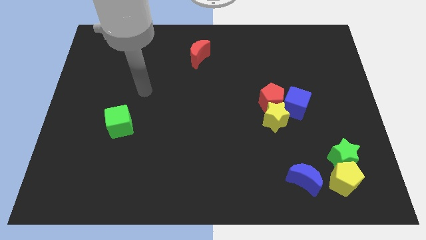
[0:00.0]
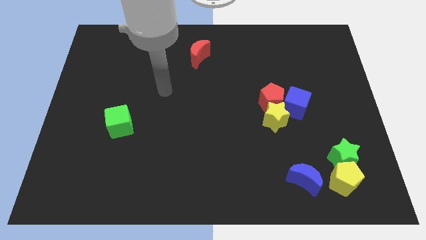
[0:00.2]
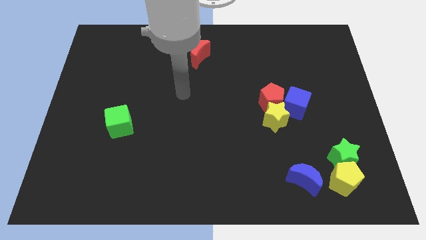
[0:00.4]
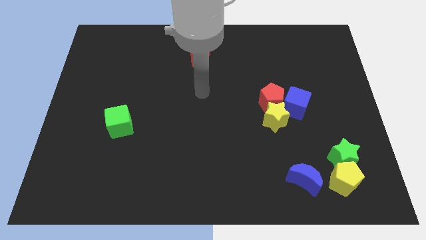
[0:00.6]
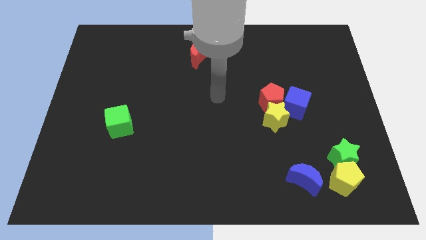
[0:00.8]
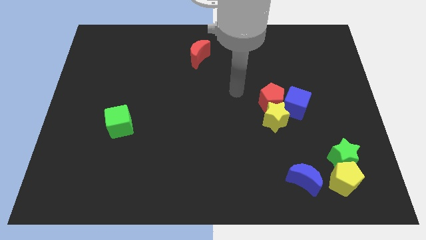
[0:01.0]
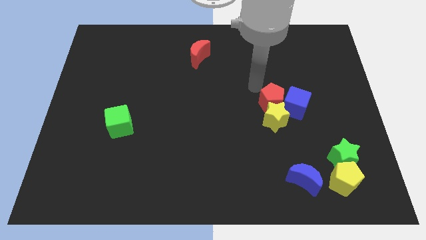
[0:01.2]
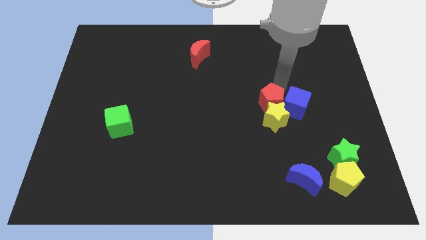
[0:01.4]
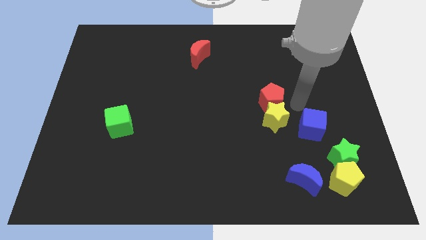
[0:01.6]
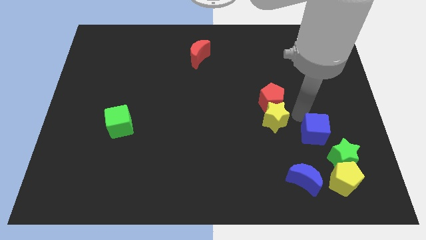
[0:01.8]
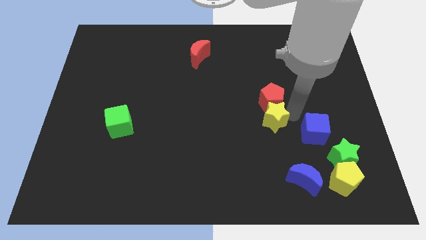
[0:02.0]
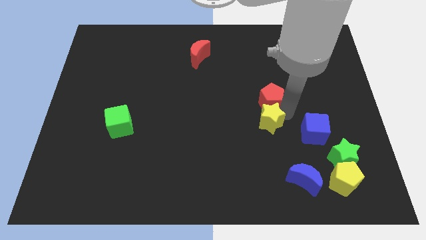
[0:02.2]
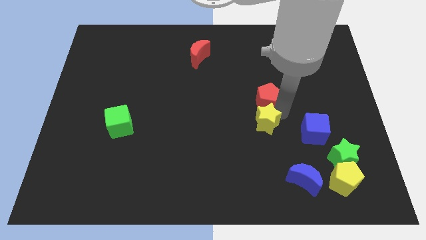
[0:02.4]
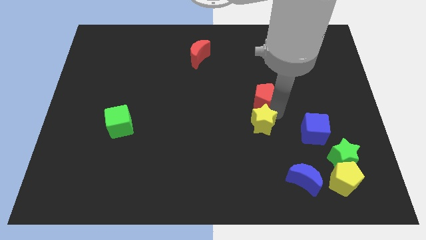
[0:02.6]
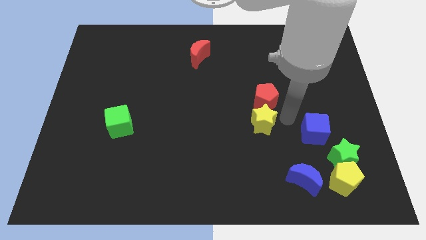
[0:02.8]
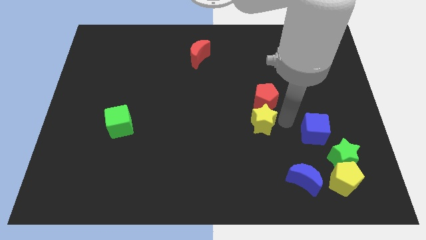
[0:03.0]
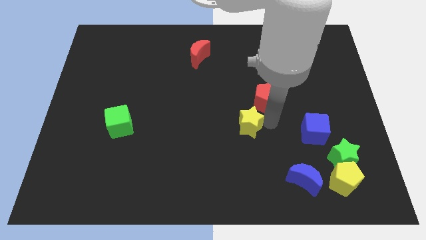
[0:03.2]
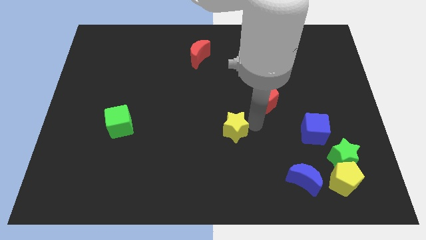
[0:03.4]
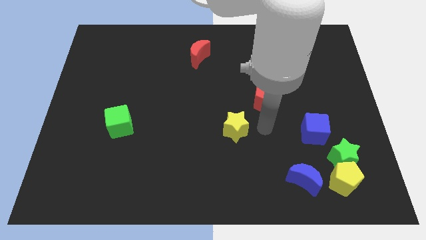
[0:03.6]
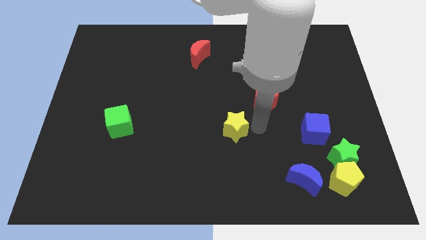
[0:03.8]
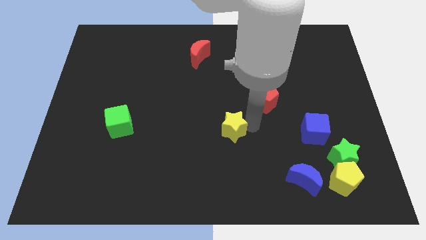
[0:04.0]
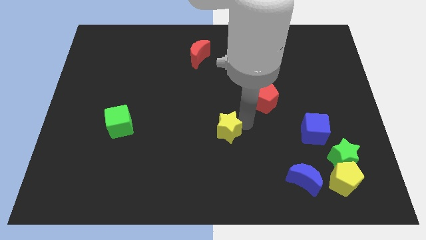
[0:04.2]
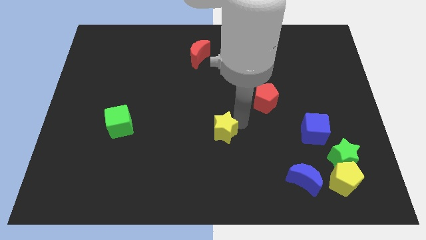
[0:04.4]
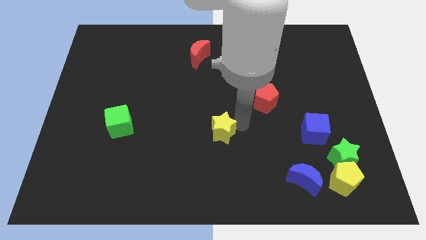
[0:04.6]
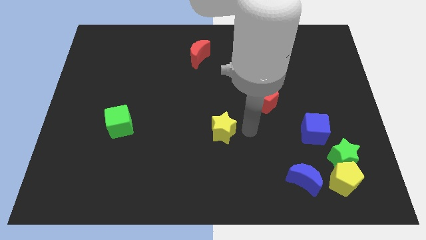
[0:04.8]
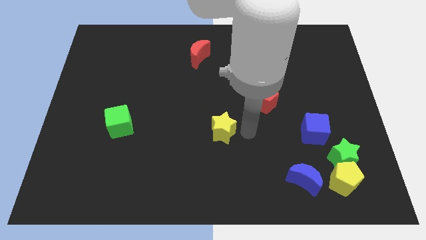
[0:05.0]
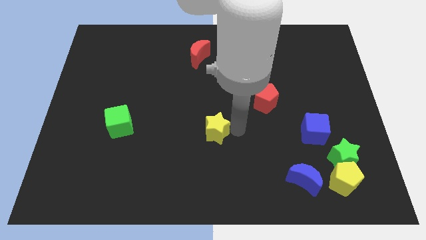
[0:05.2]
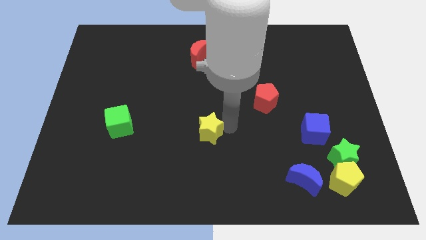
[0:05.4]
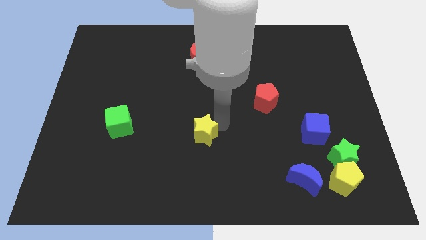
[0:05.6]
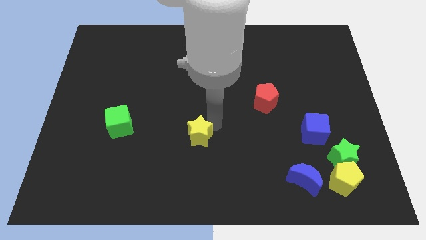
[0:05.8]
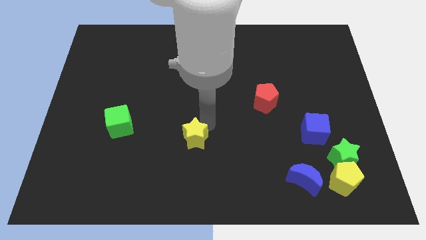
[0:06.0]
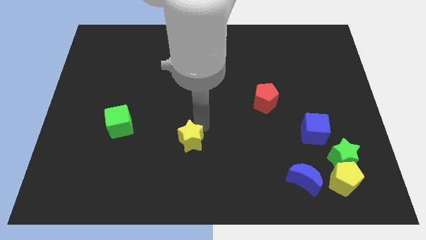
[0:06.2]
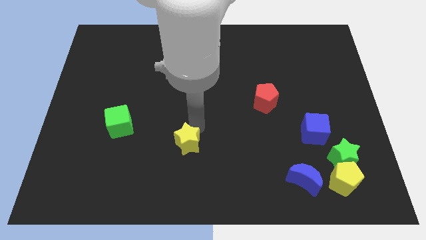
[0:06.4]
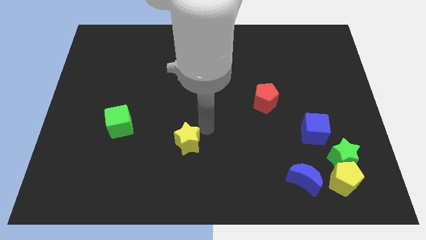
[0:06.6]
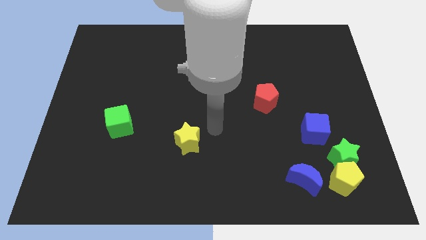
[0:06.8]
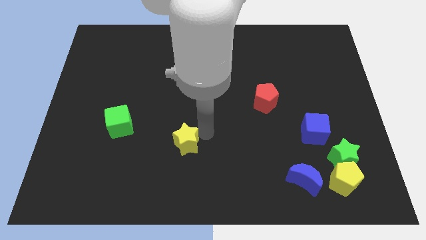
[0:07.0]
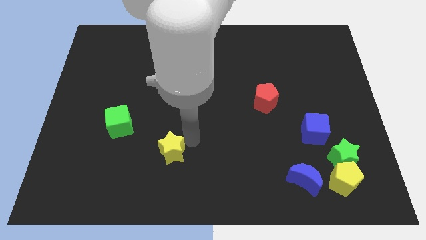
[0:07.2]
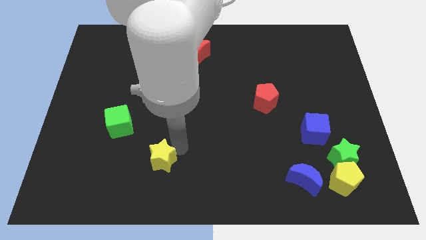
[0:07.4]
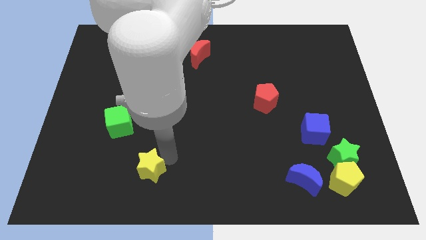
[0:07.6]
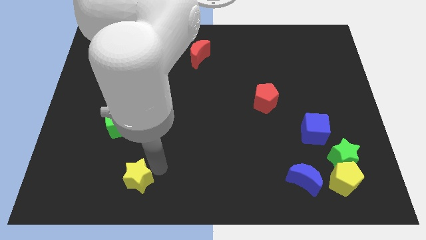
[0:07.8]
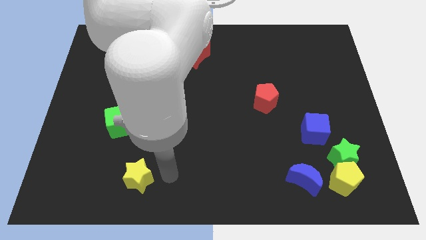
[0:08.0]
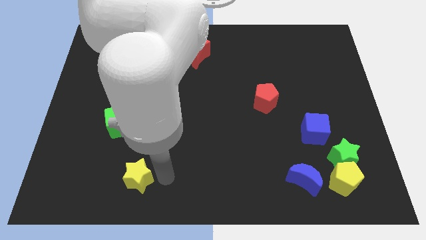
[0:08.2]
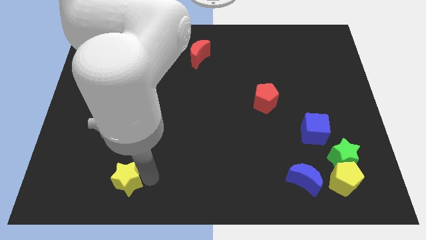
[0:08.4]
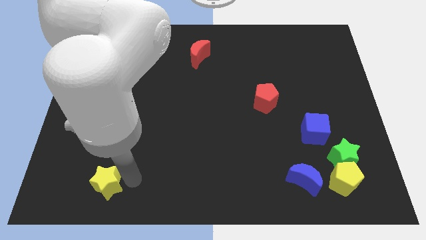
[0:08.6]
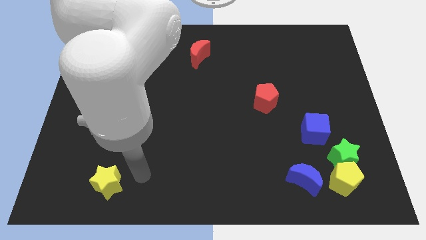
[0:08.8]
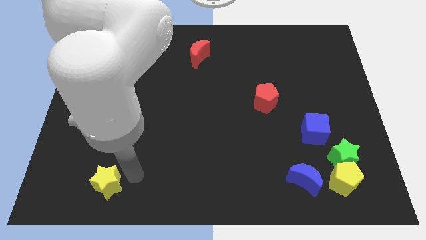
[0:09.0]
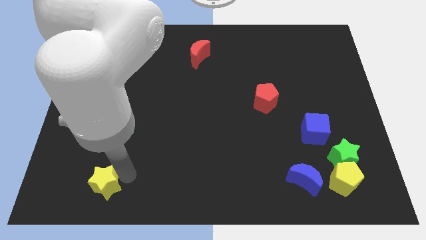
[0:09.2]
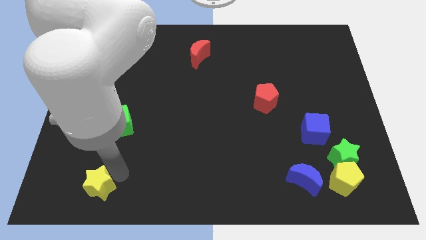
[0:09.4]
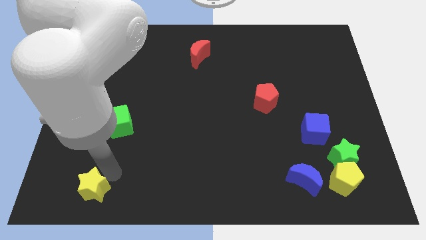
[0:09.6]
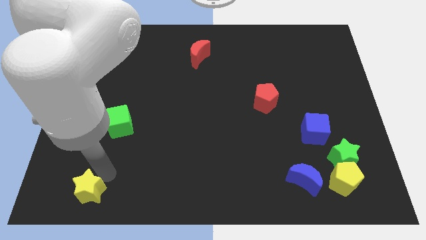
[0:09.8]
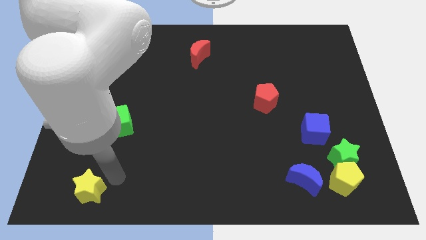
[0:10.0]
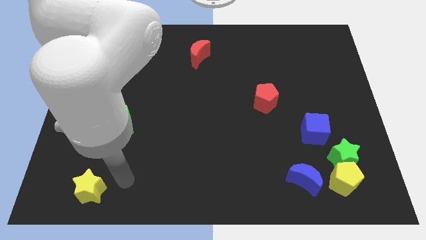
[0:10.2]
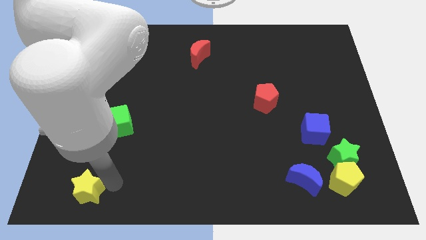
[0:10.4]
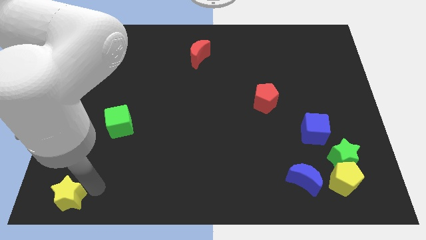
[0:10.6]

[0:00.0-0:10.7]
move the yellow star to the bottom left of the board

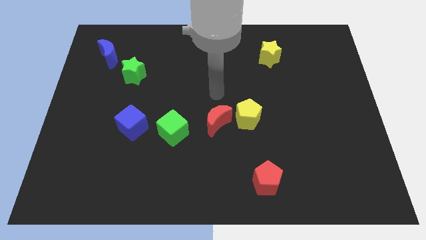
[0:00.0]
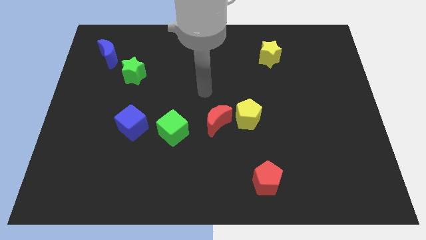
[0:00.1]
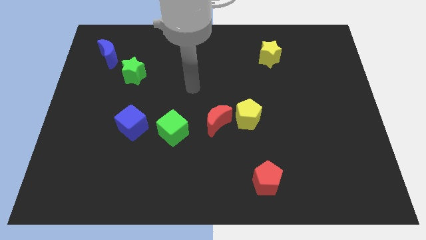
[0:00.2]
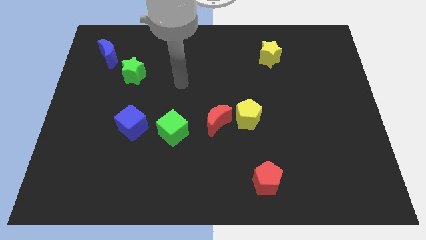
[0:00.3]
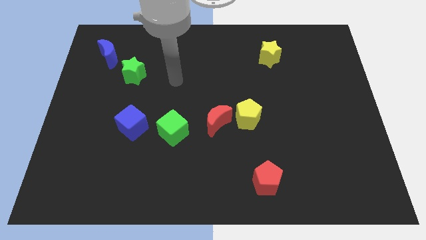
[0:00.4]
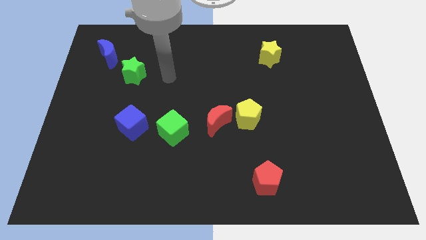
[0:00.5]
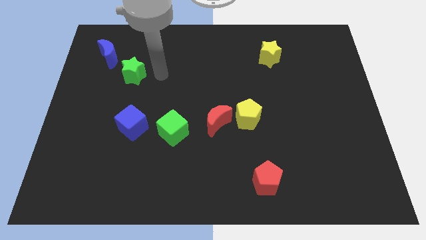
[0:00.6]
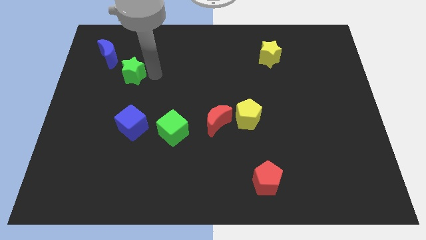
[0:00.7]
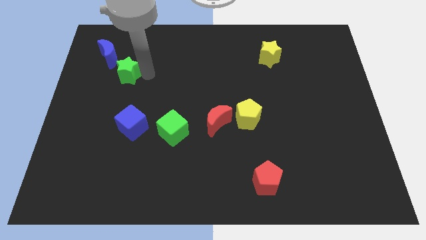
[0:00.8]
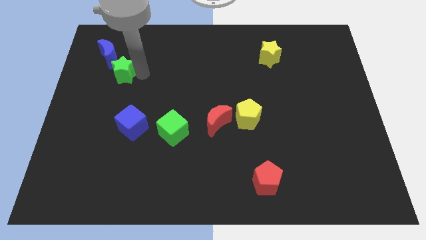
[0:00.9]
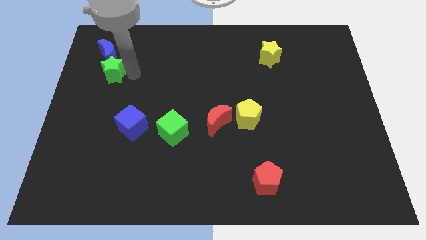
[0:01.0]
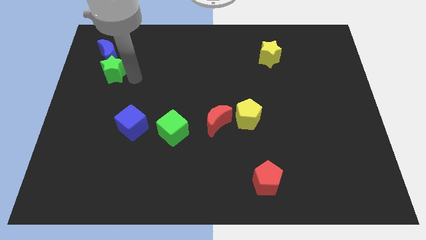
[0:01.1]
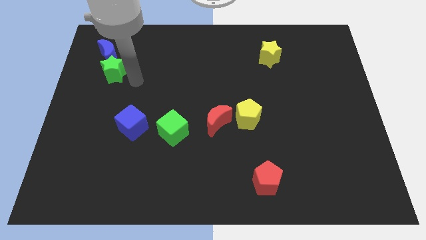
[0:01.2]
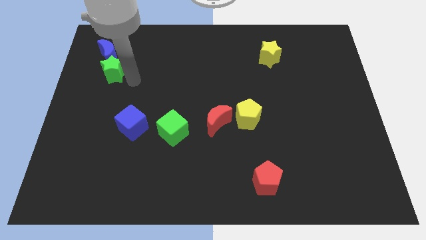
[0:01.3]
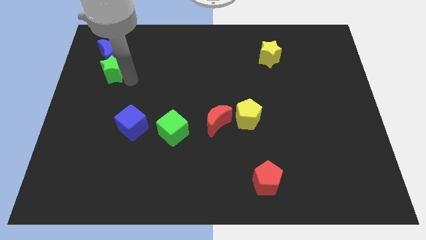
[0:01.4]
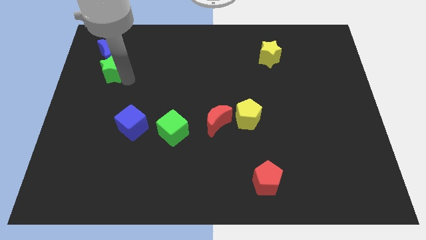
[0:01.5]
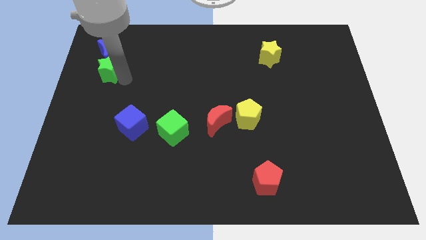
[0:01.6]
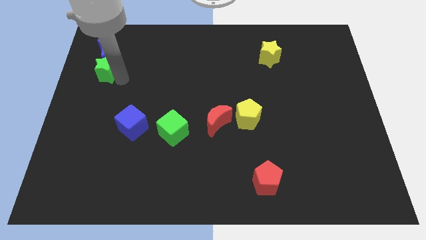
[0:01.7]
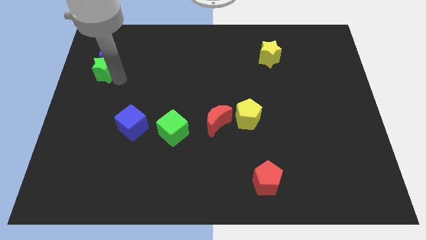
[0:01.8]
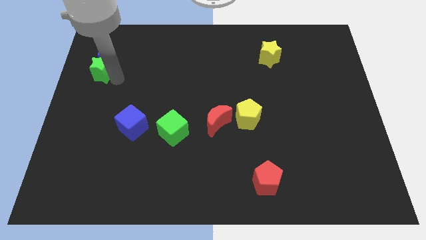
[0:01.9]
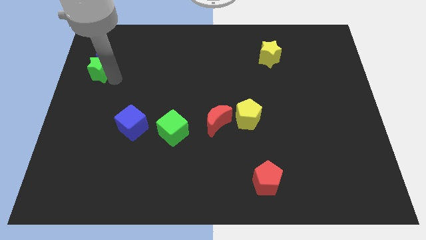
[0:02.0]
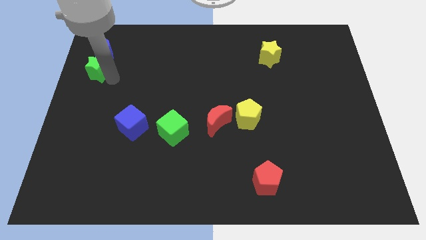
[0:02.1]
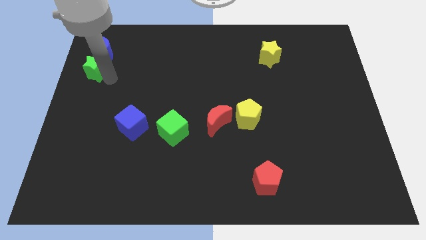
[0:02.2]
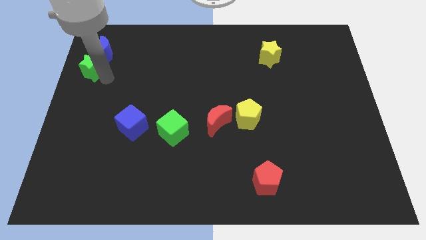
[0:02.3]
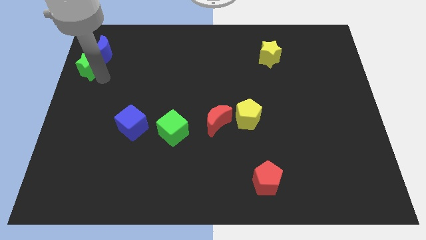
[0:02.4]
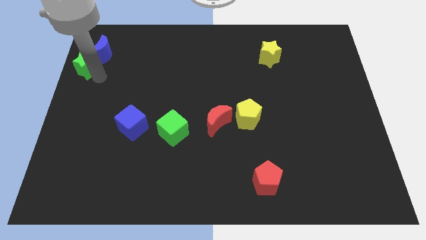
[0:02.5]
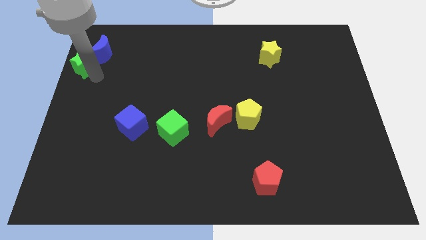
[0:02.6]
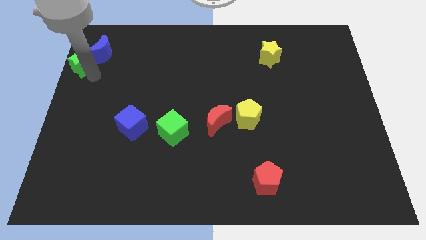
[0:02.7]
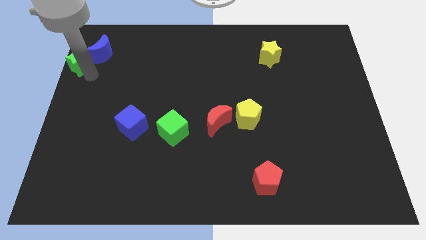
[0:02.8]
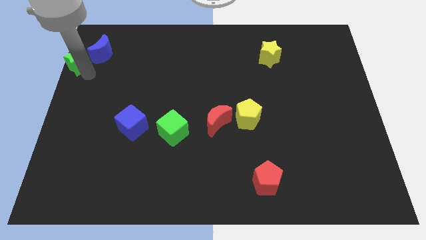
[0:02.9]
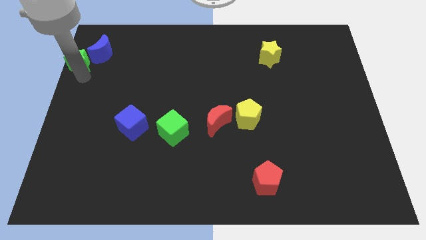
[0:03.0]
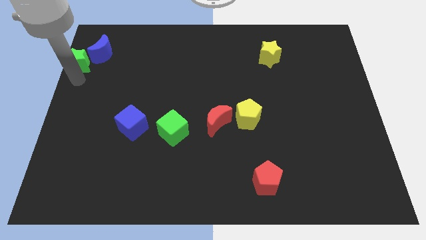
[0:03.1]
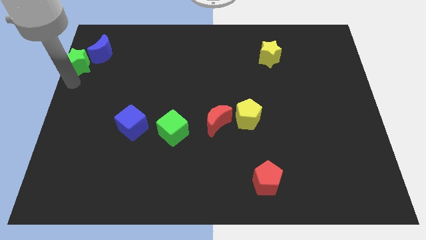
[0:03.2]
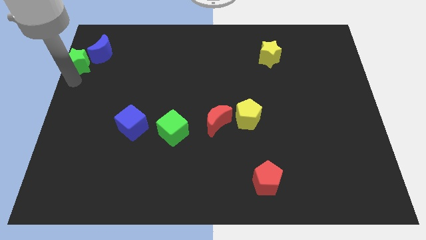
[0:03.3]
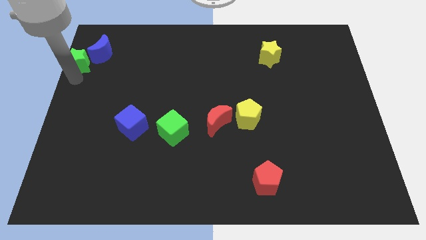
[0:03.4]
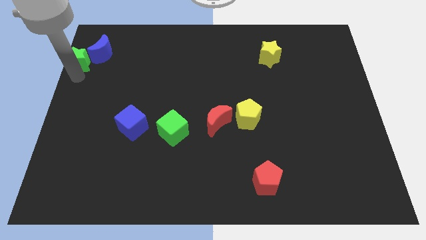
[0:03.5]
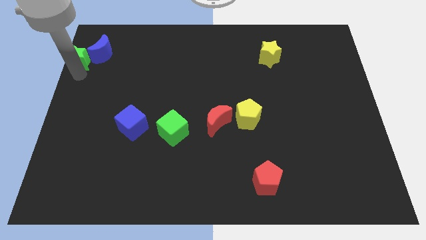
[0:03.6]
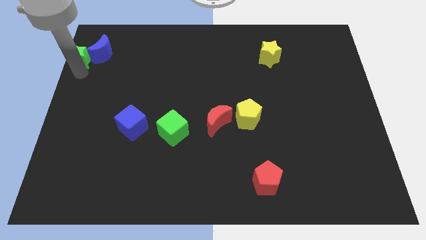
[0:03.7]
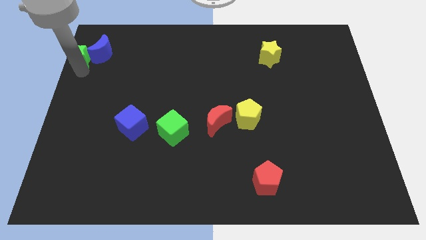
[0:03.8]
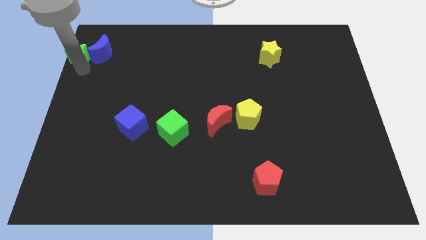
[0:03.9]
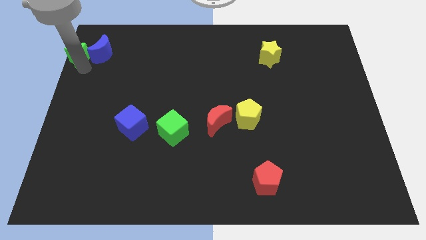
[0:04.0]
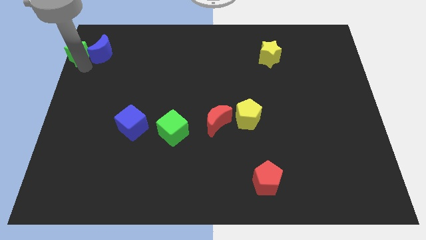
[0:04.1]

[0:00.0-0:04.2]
move the green star to the top left
